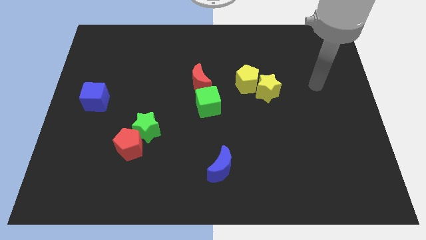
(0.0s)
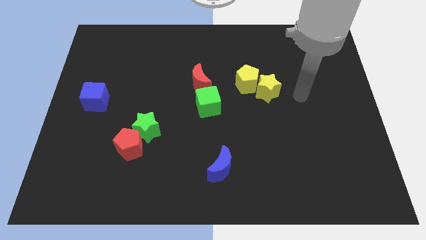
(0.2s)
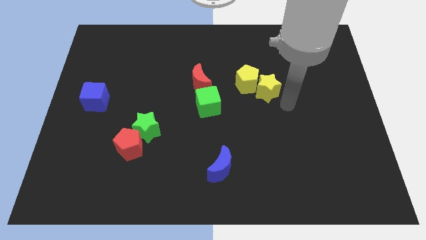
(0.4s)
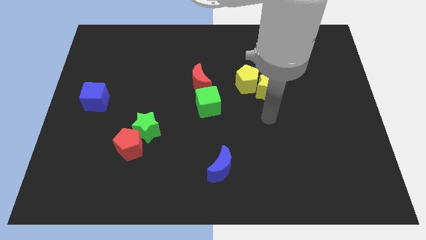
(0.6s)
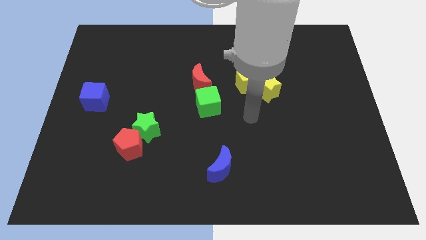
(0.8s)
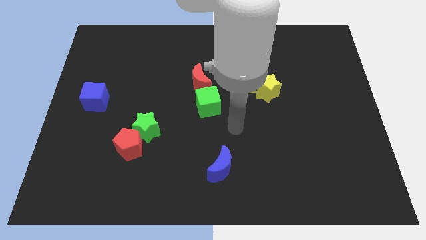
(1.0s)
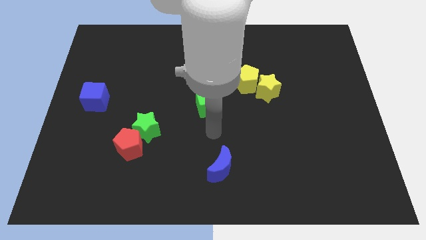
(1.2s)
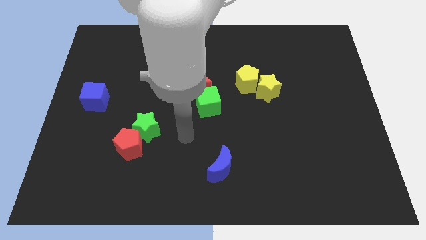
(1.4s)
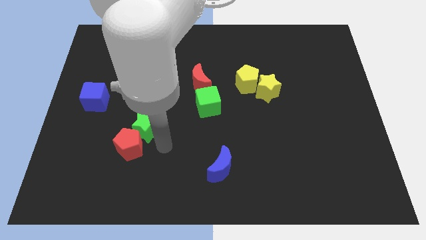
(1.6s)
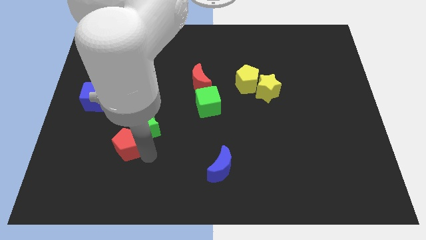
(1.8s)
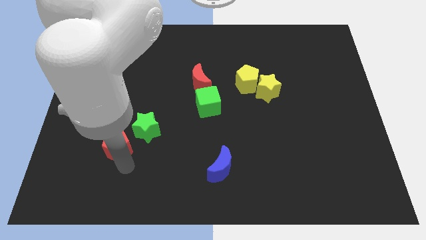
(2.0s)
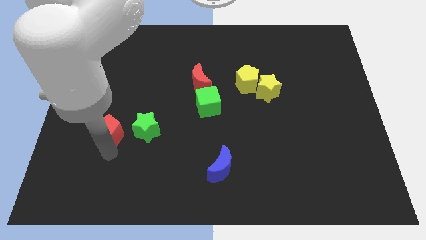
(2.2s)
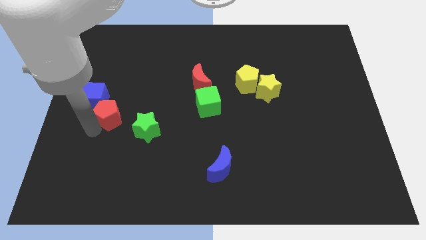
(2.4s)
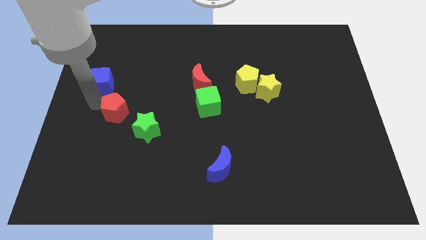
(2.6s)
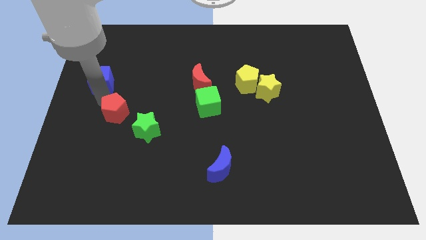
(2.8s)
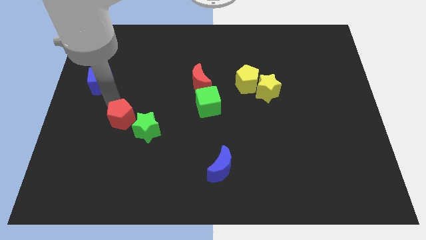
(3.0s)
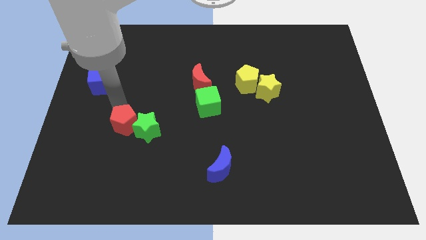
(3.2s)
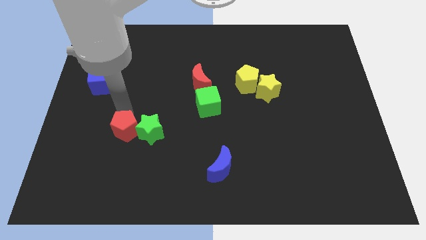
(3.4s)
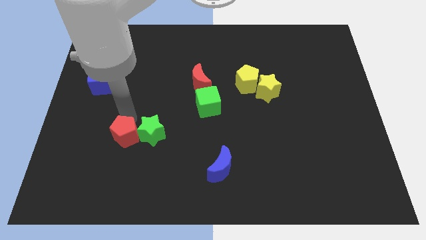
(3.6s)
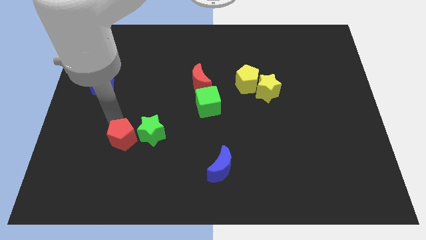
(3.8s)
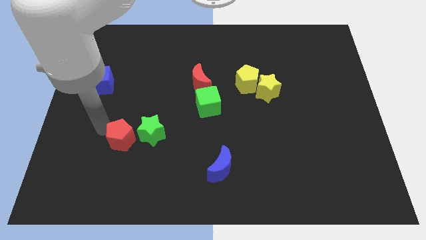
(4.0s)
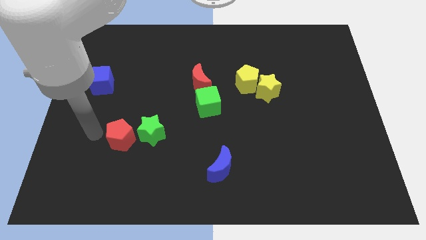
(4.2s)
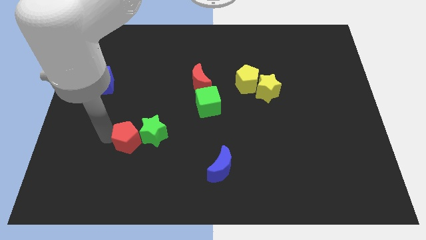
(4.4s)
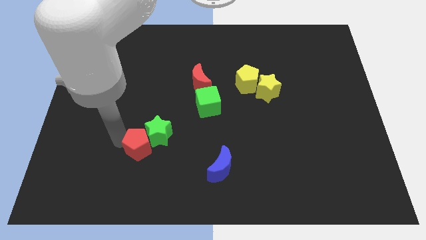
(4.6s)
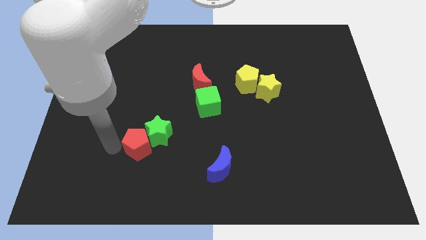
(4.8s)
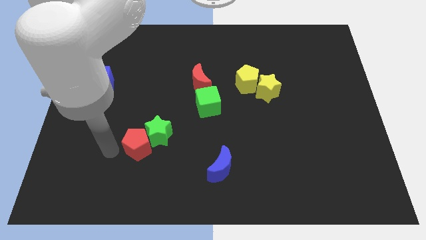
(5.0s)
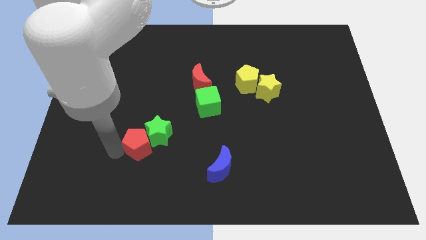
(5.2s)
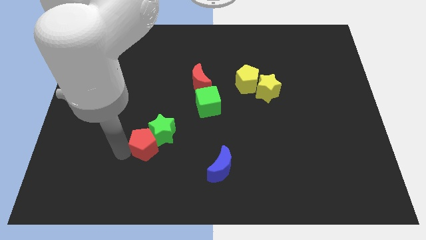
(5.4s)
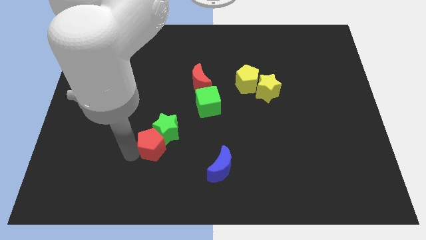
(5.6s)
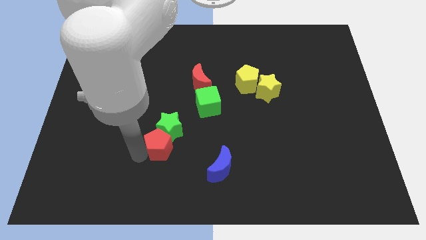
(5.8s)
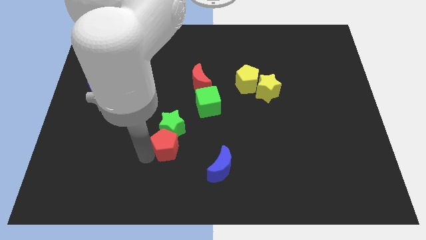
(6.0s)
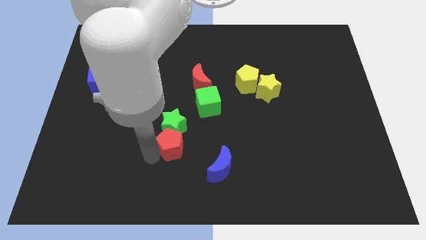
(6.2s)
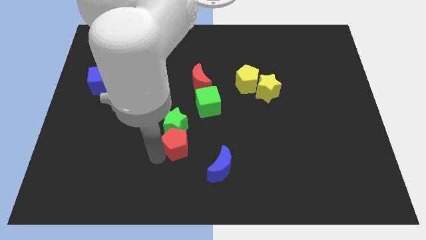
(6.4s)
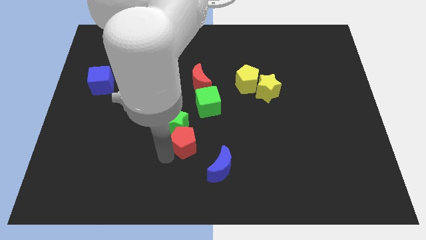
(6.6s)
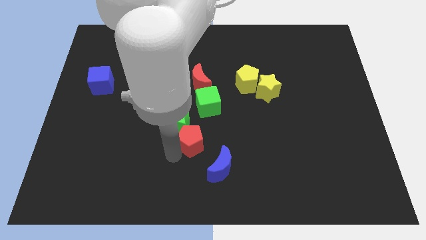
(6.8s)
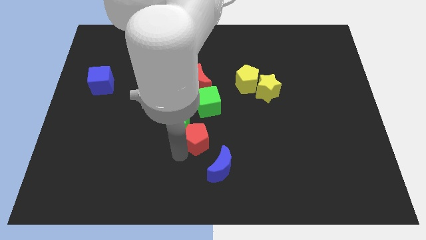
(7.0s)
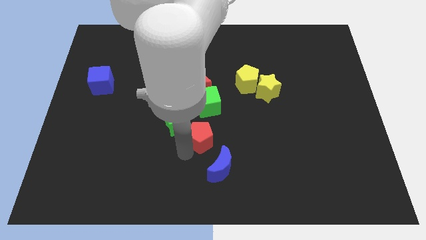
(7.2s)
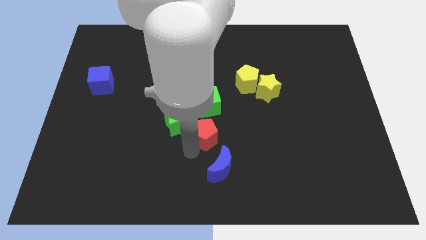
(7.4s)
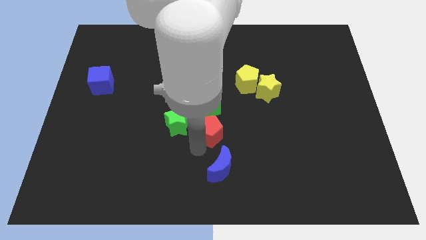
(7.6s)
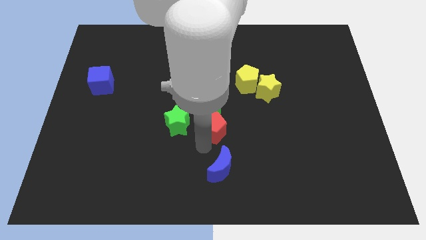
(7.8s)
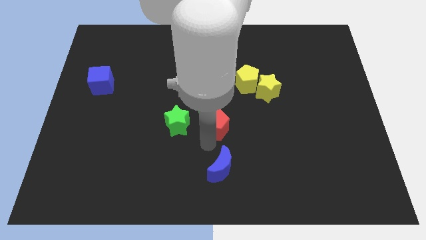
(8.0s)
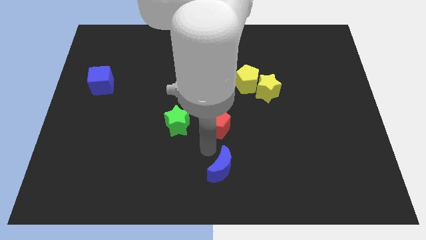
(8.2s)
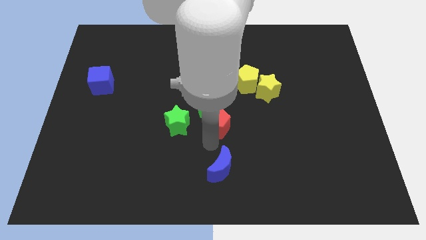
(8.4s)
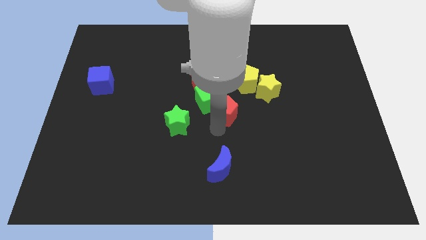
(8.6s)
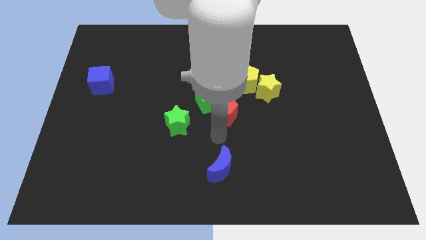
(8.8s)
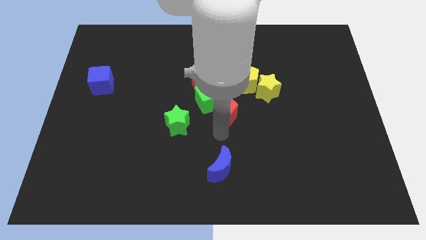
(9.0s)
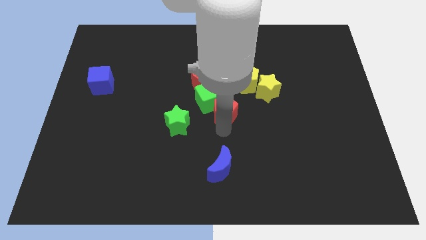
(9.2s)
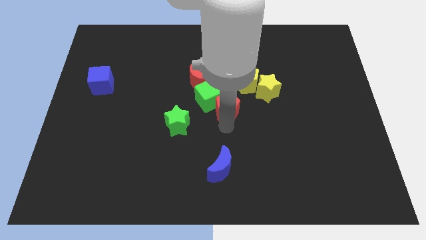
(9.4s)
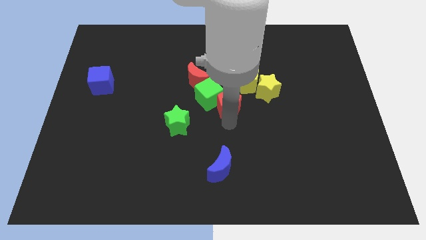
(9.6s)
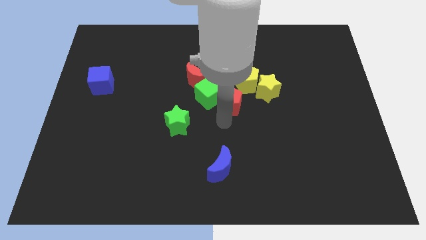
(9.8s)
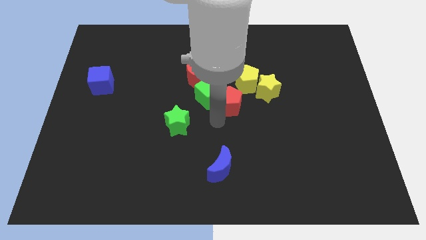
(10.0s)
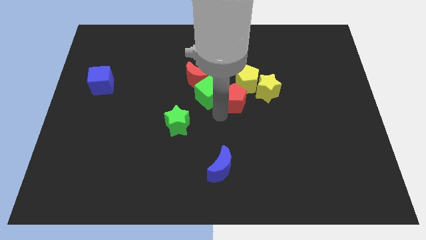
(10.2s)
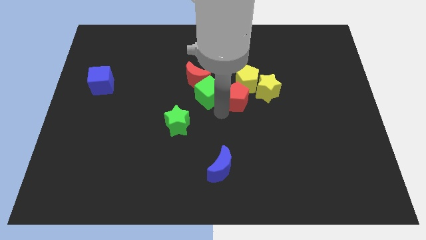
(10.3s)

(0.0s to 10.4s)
put the red pentagon towards the yellow pentagon

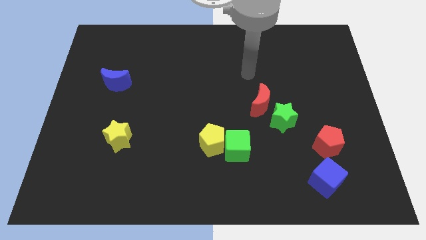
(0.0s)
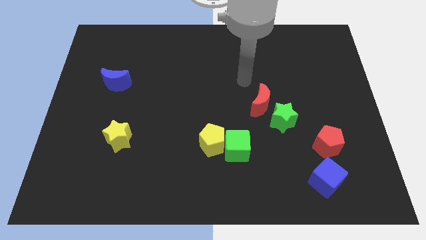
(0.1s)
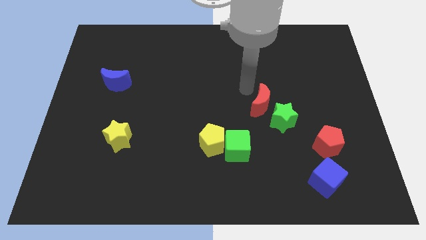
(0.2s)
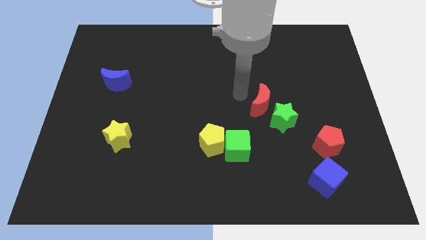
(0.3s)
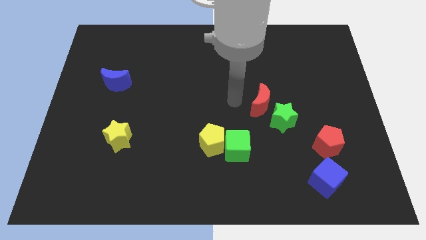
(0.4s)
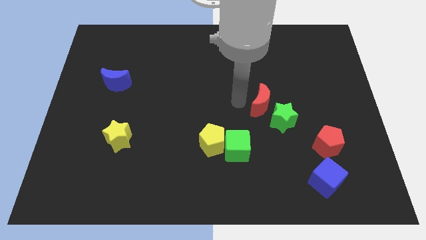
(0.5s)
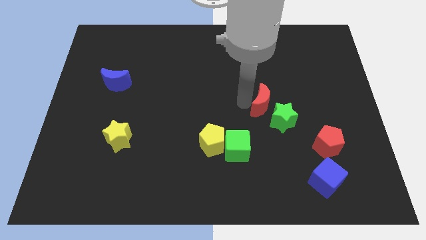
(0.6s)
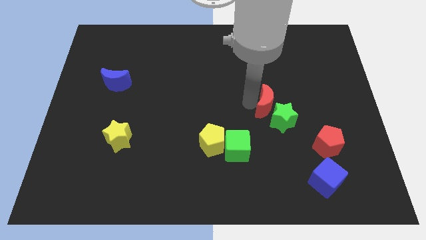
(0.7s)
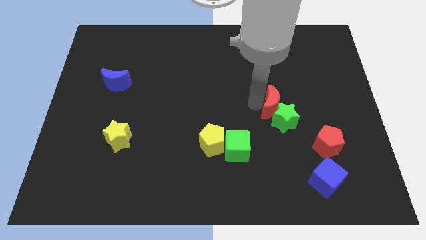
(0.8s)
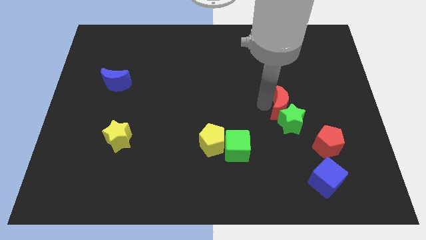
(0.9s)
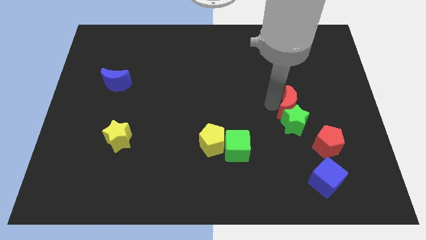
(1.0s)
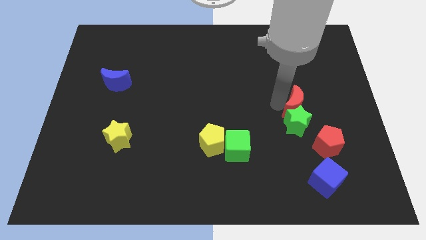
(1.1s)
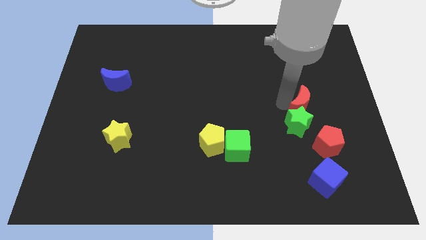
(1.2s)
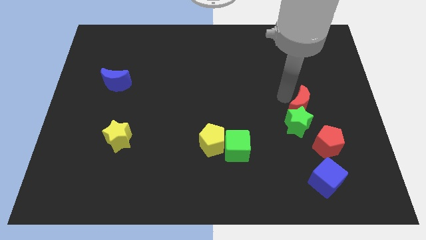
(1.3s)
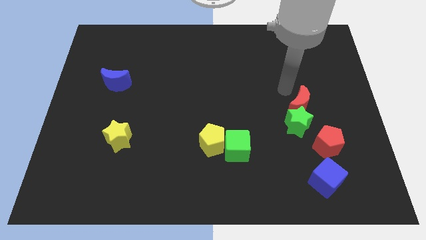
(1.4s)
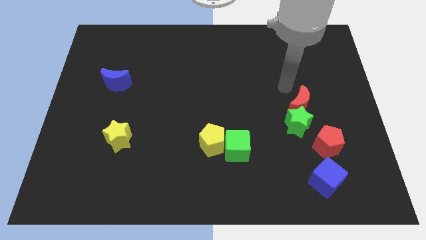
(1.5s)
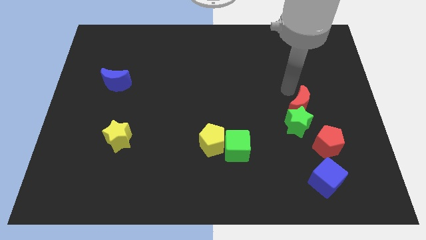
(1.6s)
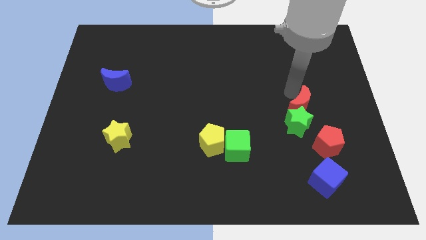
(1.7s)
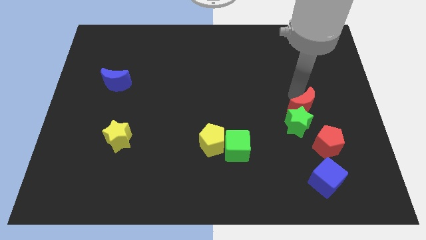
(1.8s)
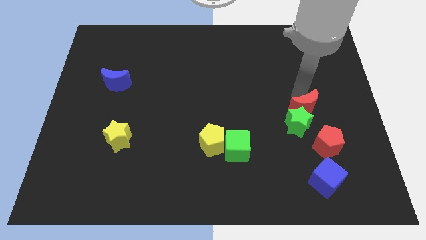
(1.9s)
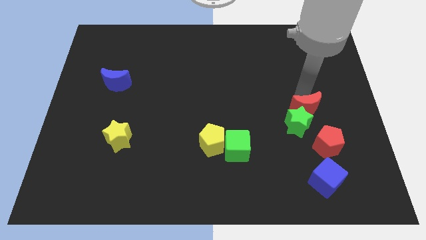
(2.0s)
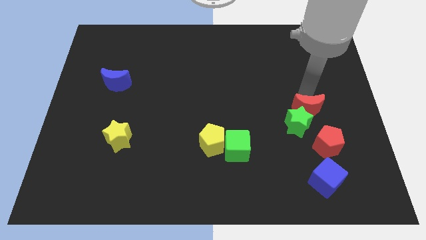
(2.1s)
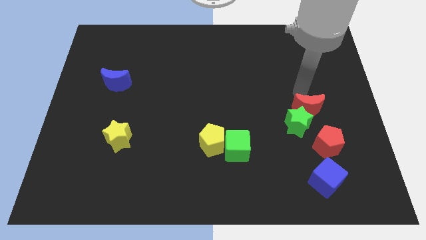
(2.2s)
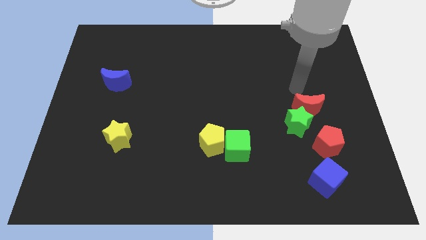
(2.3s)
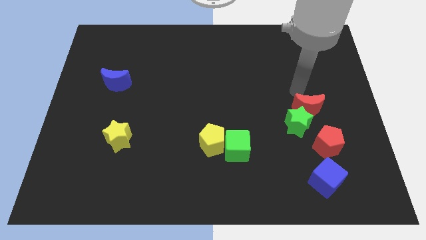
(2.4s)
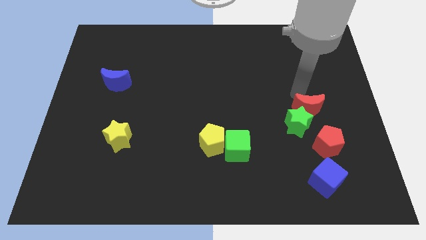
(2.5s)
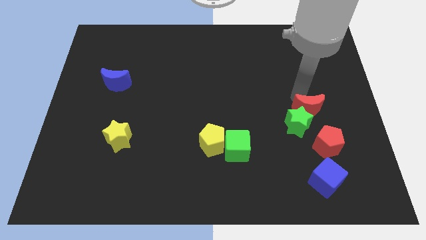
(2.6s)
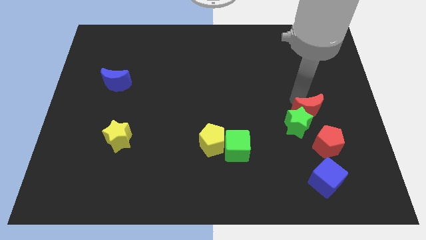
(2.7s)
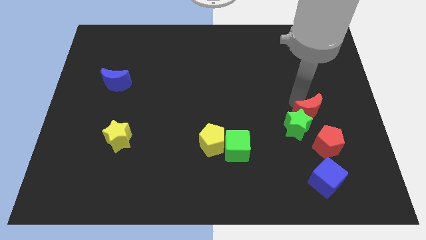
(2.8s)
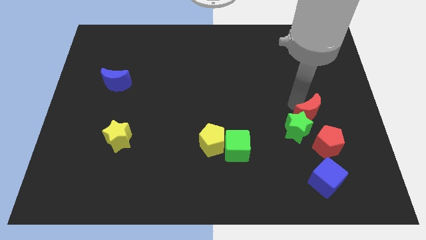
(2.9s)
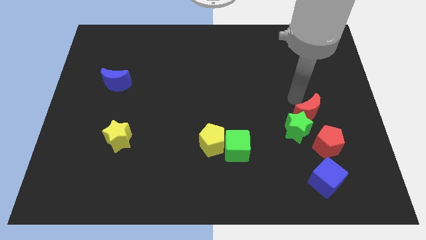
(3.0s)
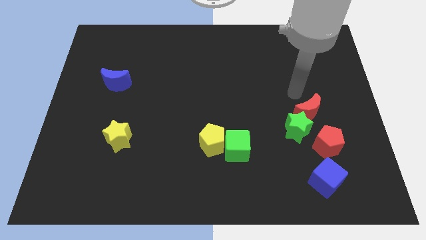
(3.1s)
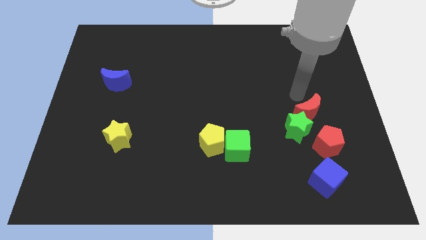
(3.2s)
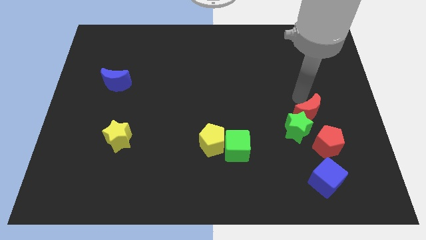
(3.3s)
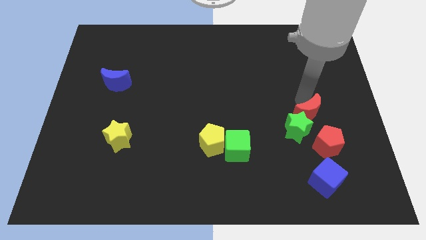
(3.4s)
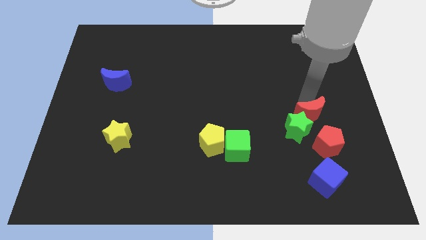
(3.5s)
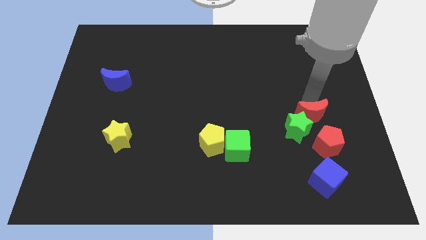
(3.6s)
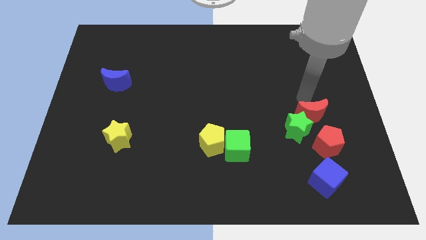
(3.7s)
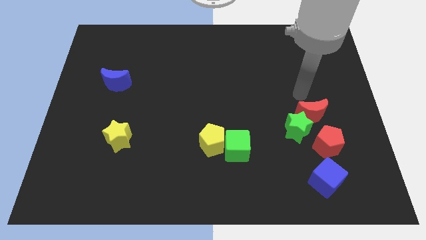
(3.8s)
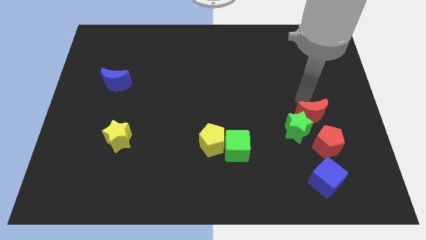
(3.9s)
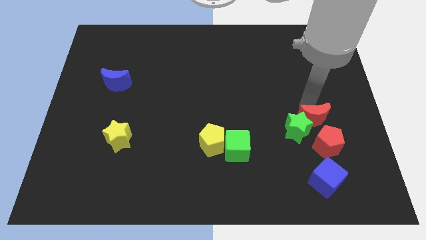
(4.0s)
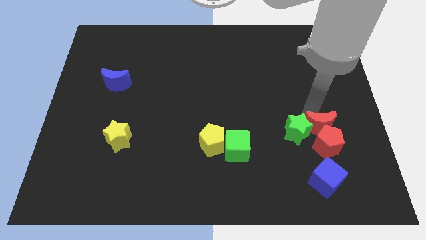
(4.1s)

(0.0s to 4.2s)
slide the red moon to the red pentagon
